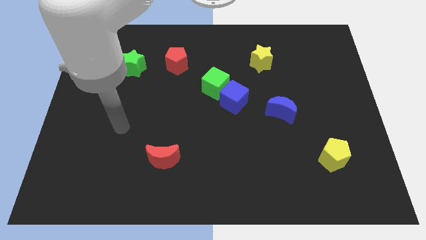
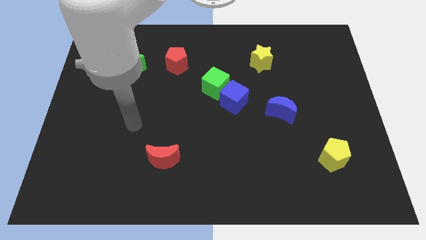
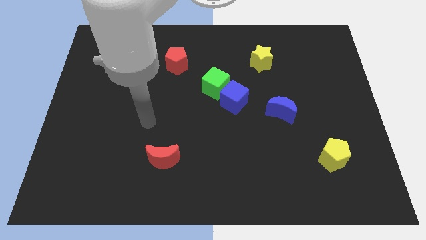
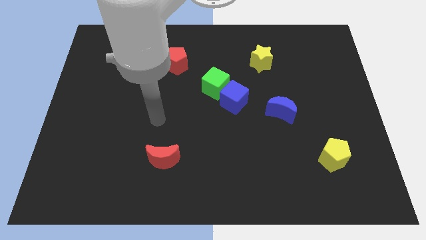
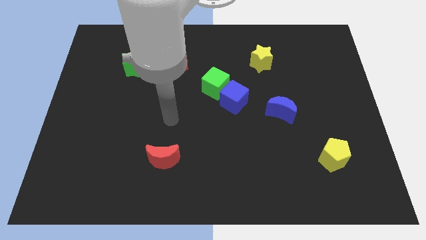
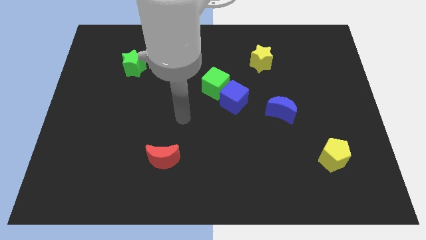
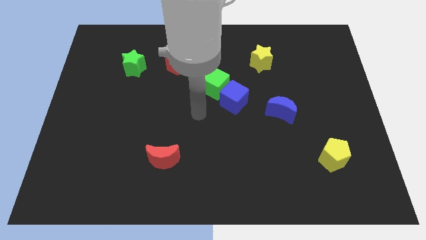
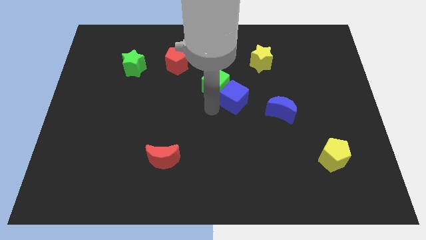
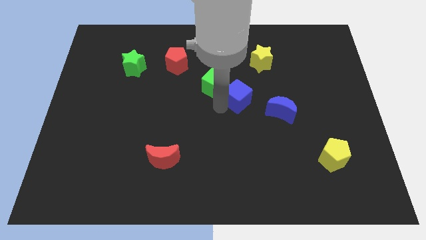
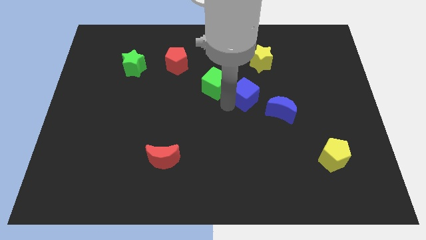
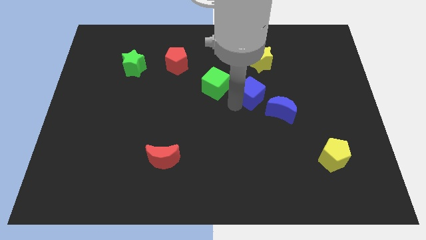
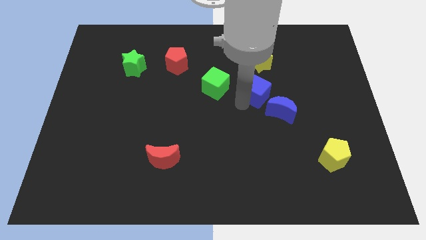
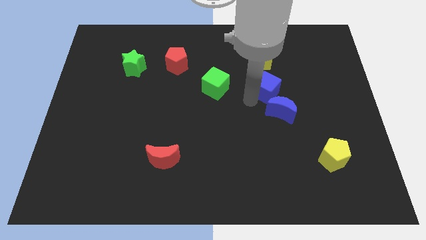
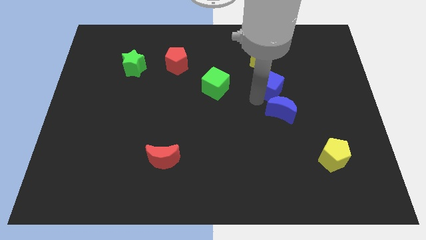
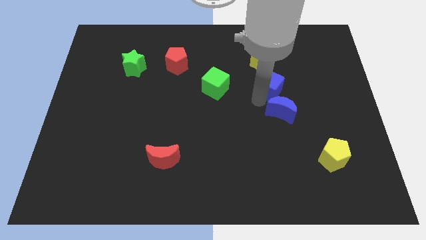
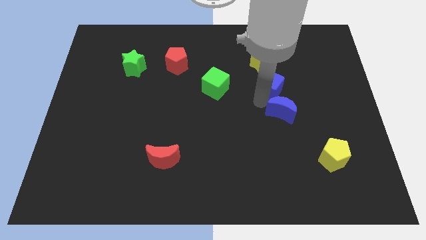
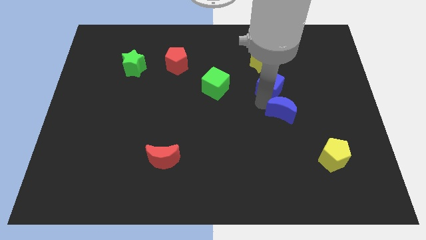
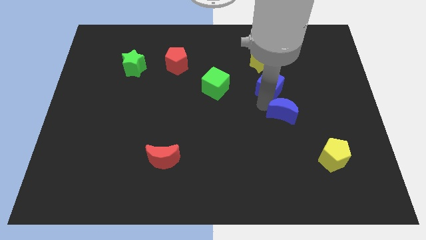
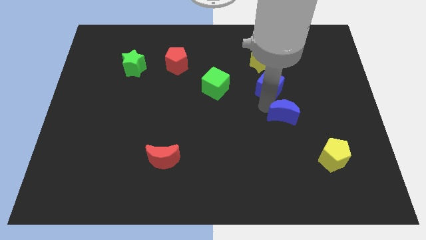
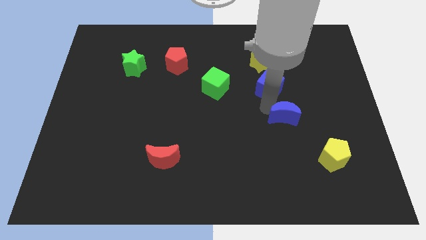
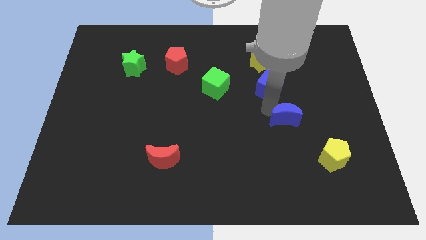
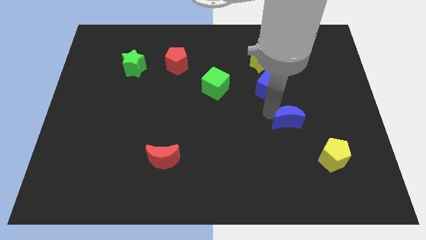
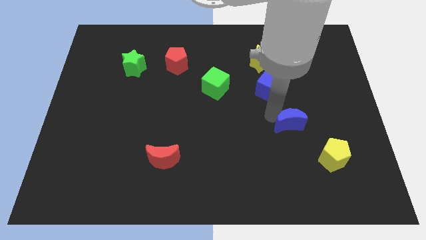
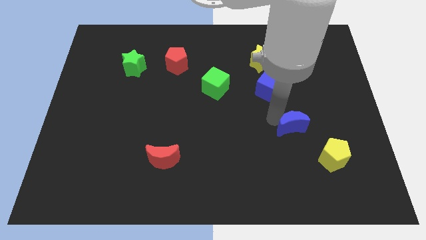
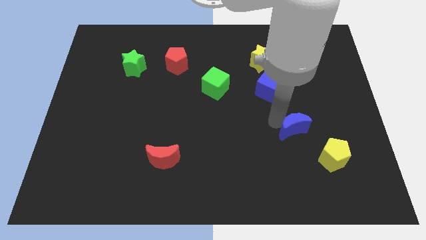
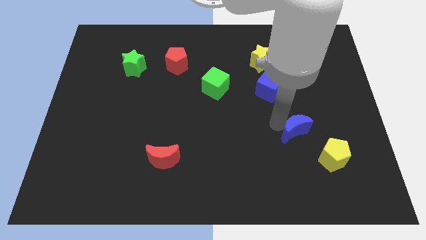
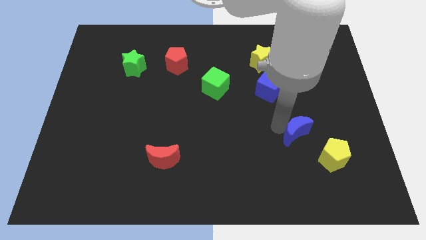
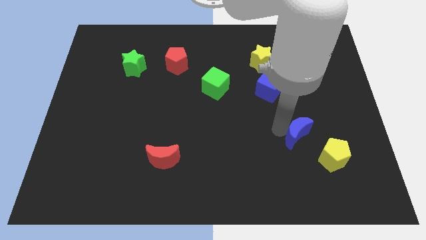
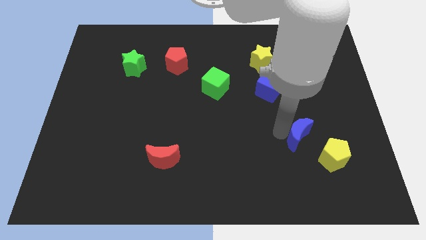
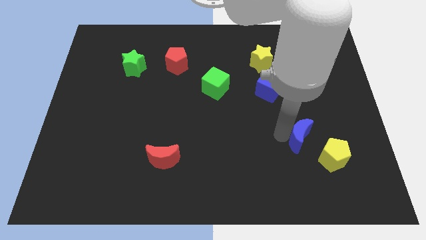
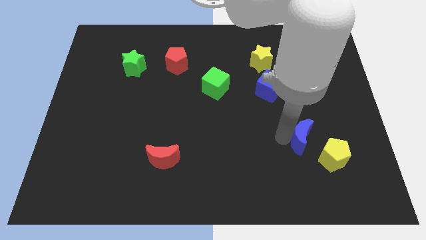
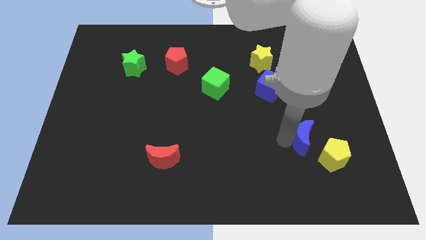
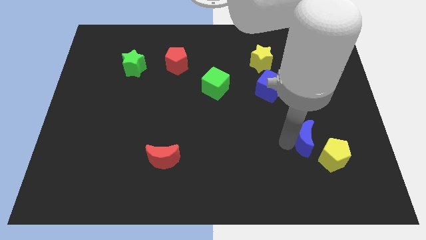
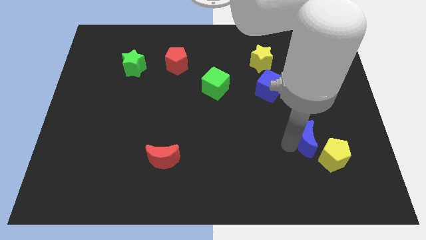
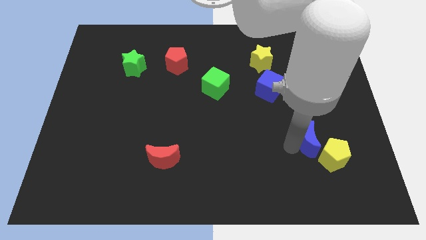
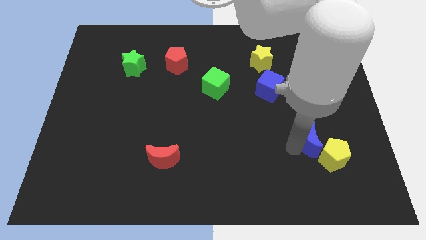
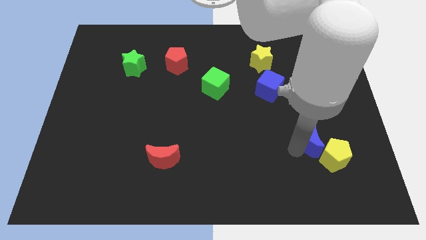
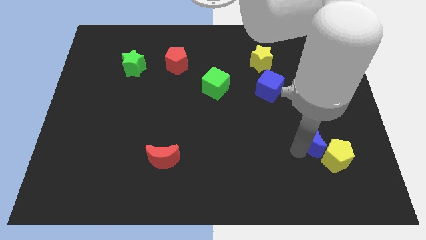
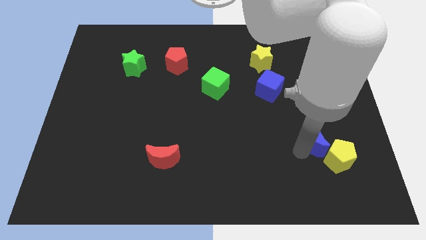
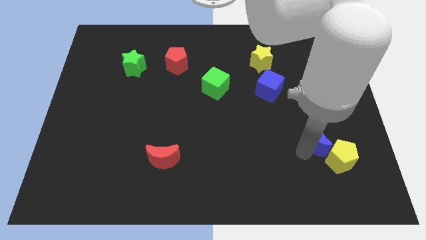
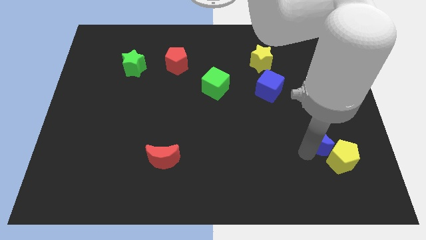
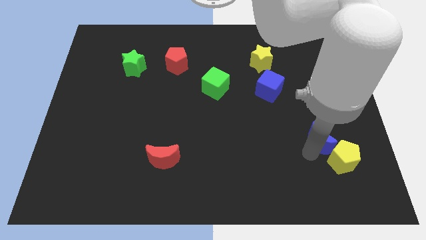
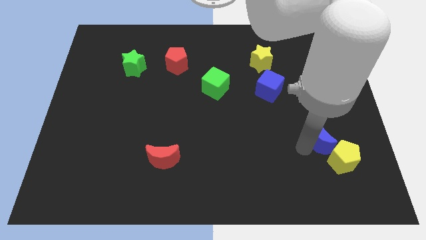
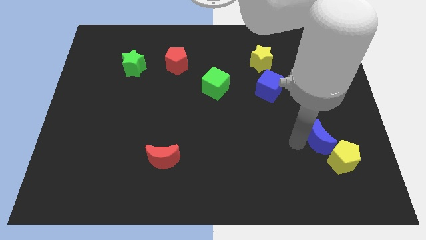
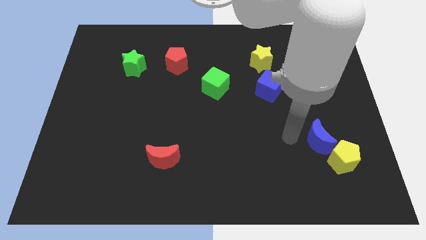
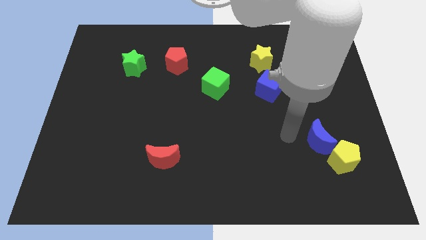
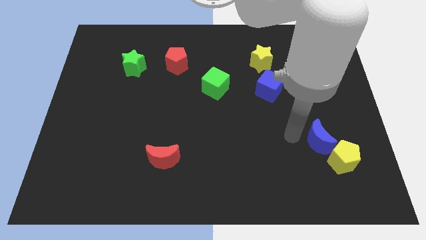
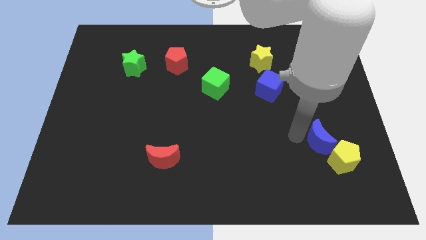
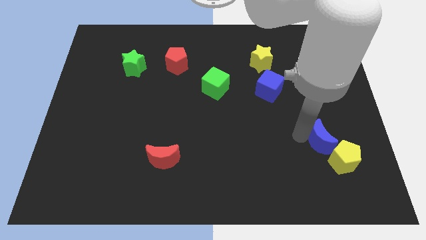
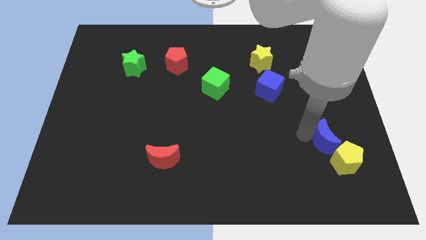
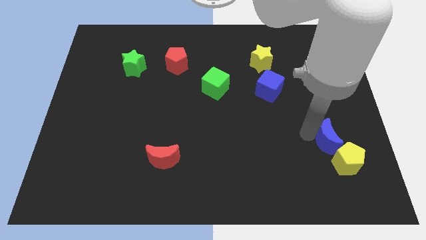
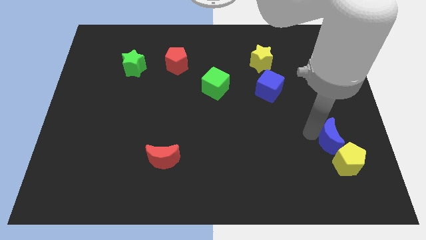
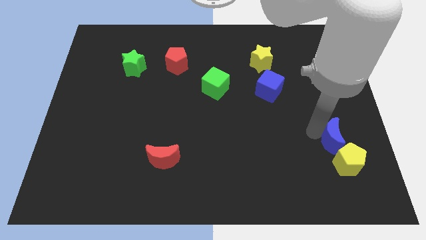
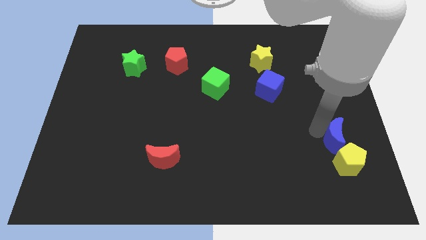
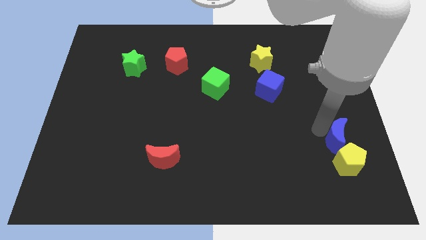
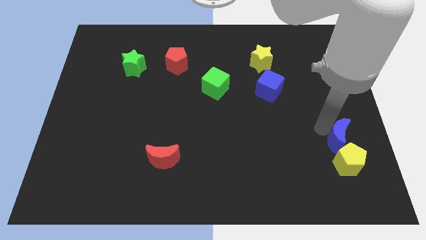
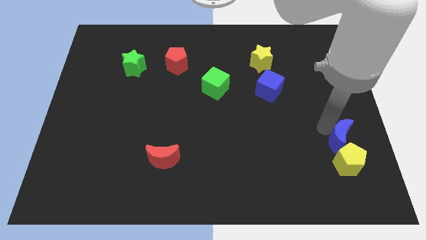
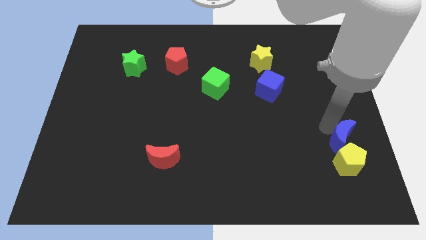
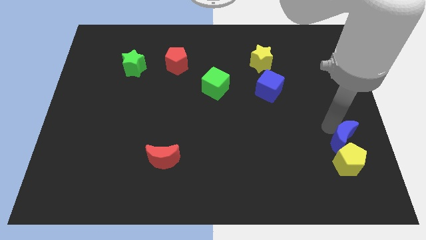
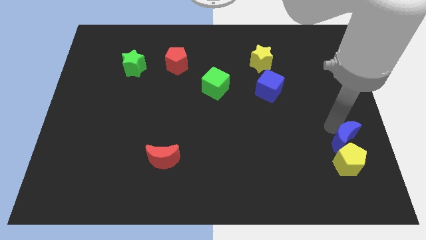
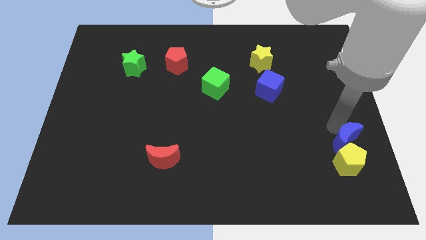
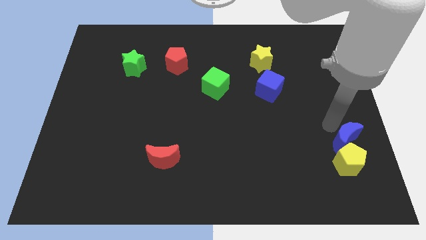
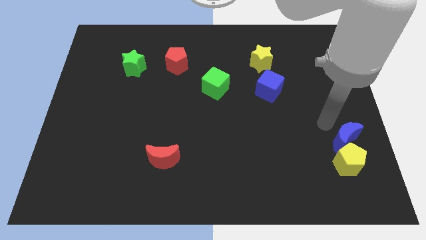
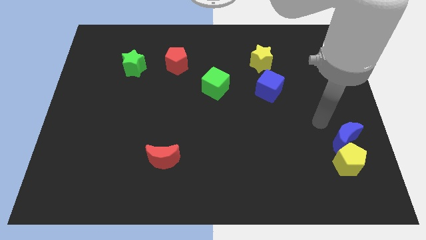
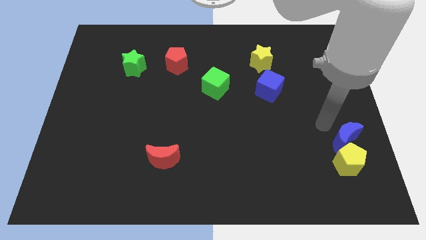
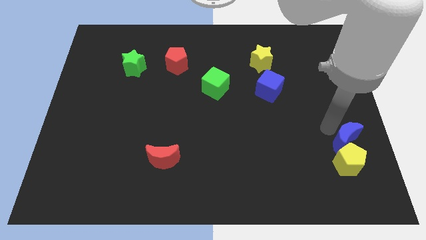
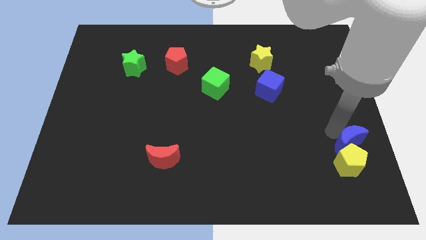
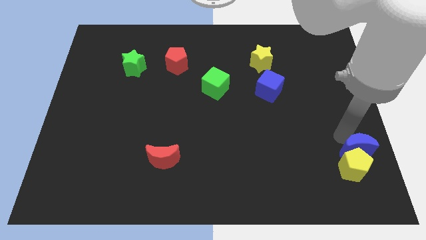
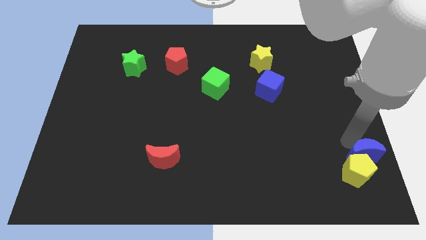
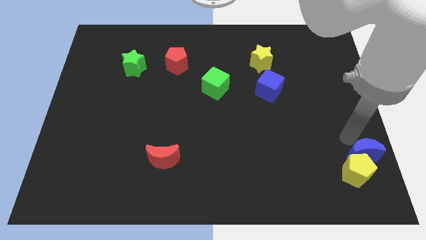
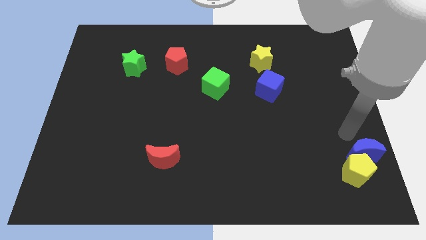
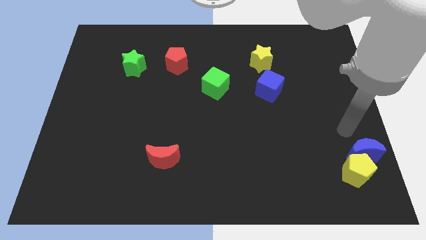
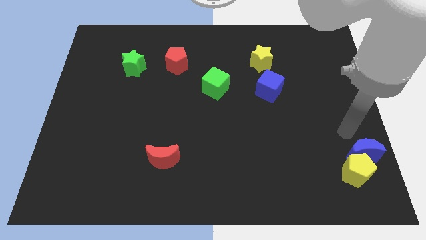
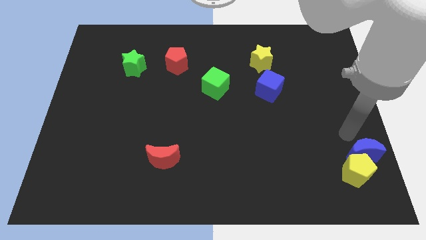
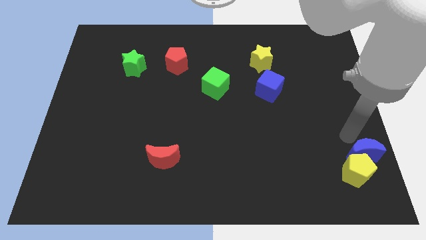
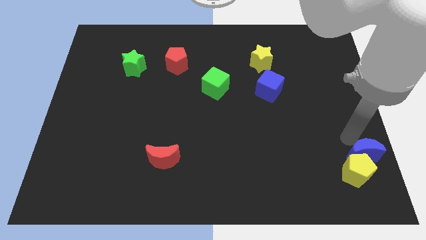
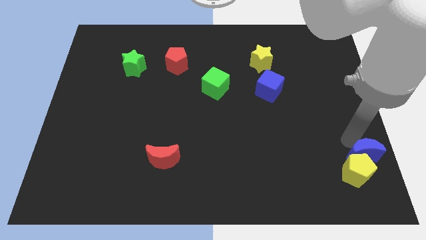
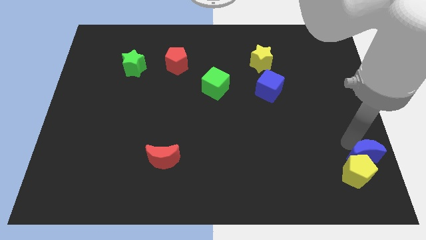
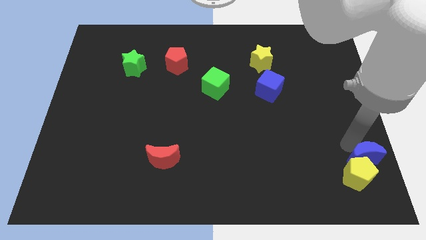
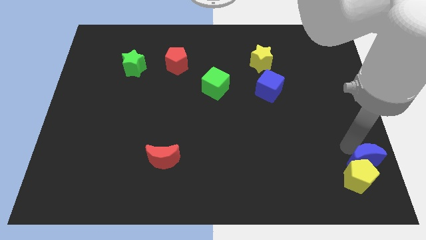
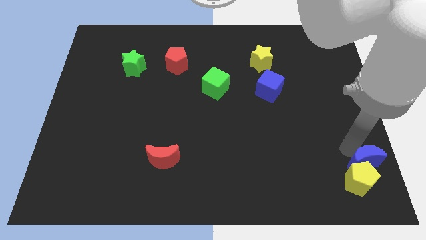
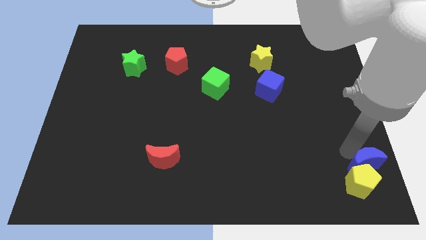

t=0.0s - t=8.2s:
slide the blue moon to the bottom right of the board
